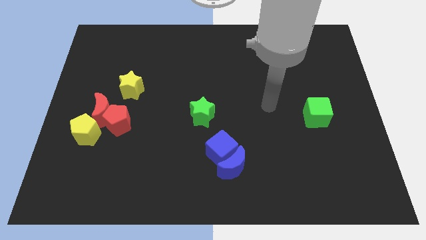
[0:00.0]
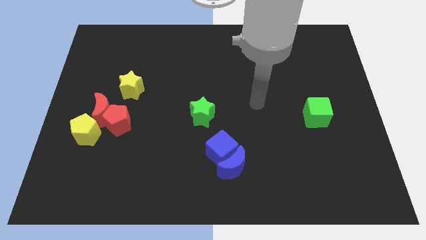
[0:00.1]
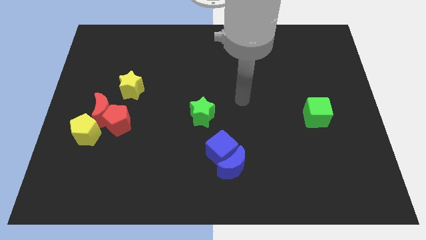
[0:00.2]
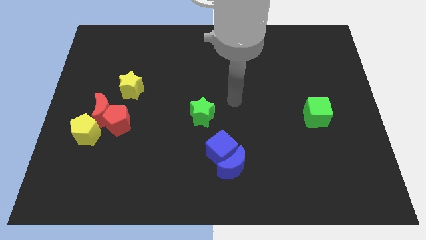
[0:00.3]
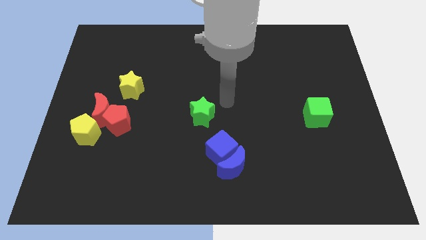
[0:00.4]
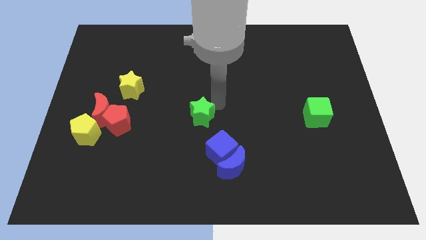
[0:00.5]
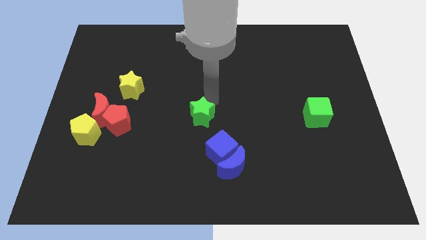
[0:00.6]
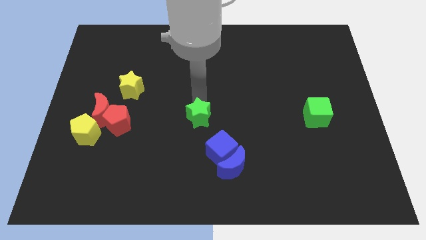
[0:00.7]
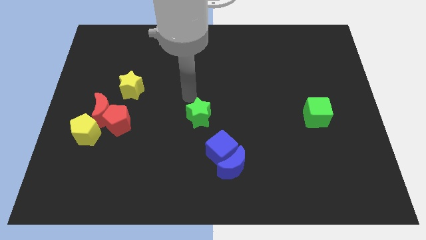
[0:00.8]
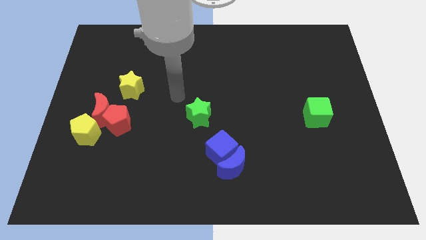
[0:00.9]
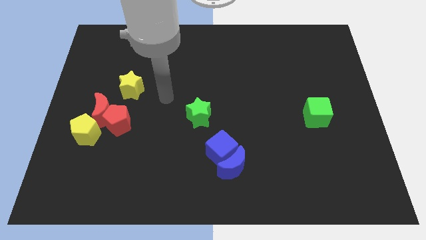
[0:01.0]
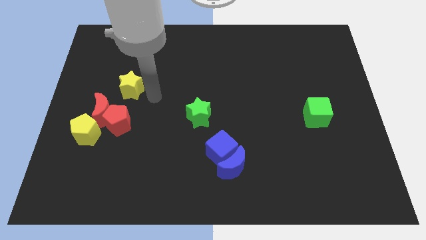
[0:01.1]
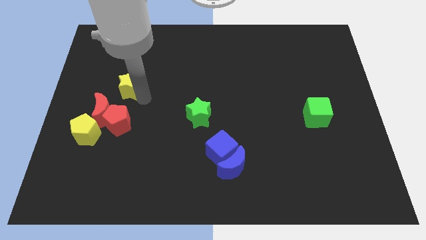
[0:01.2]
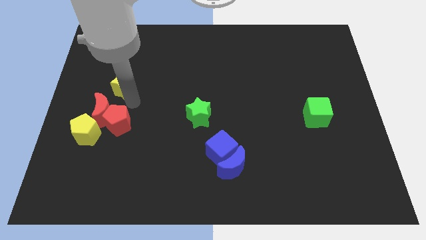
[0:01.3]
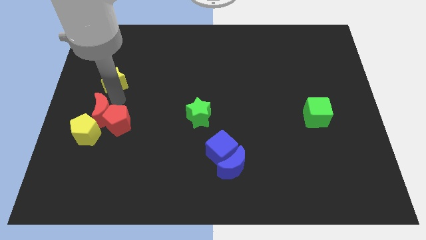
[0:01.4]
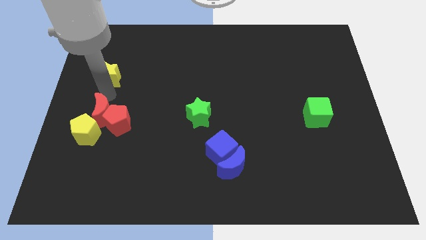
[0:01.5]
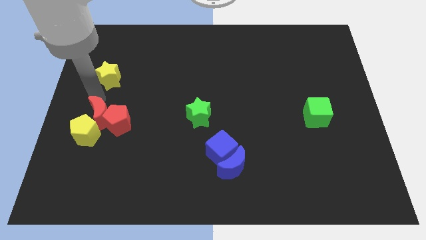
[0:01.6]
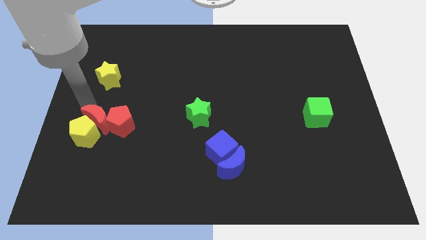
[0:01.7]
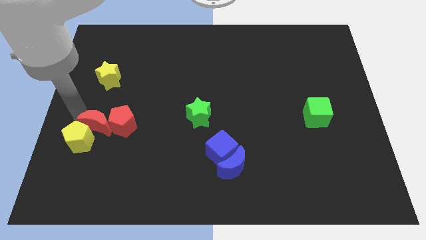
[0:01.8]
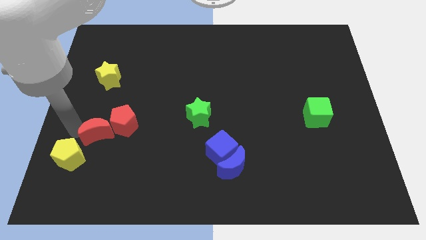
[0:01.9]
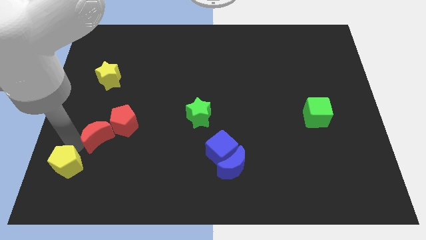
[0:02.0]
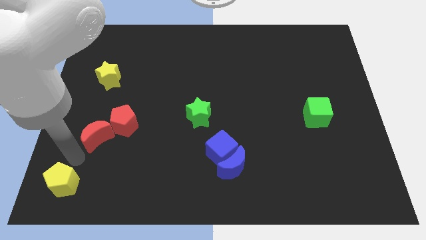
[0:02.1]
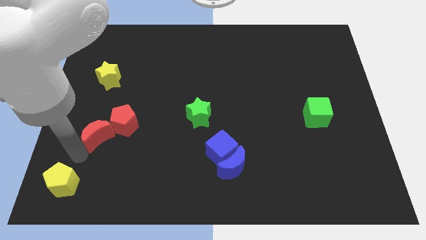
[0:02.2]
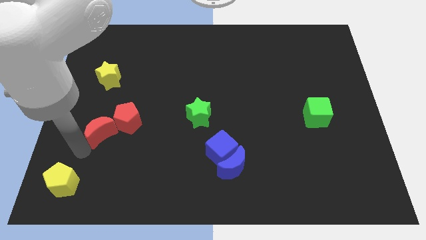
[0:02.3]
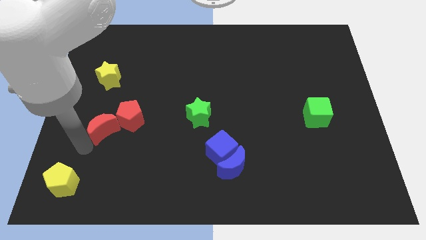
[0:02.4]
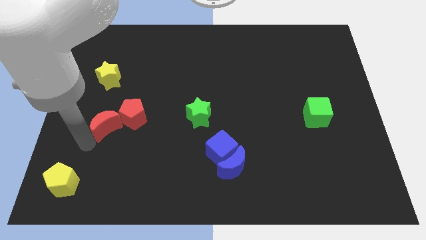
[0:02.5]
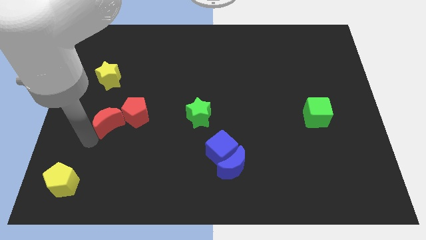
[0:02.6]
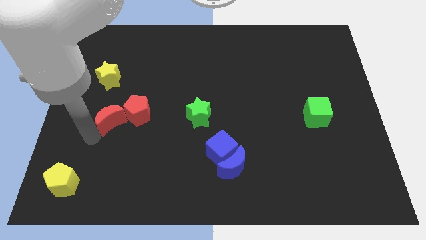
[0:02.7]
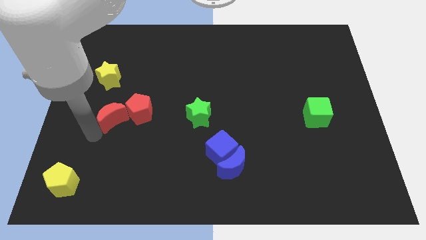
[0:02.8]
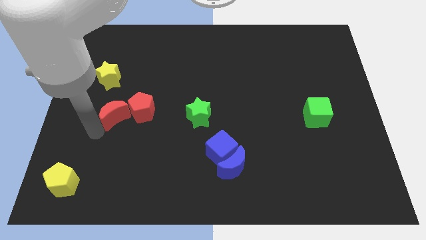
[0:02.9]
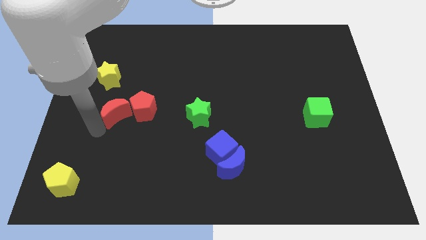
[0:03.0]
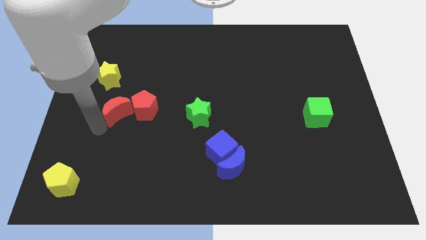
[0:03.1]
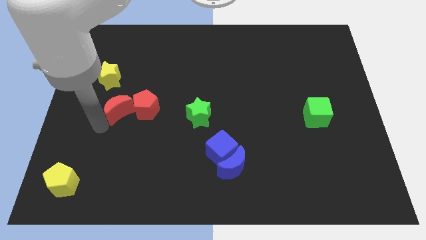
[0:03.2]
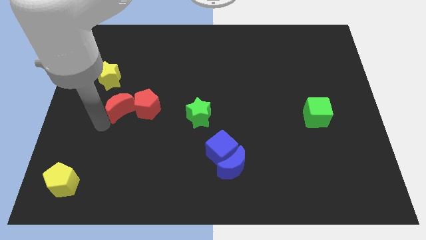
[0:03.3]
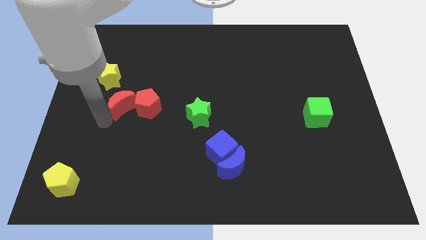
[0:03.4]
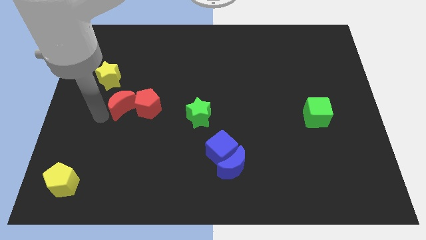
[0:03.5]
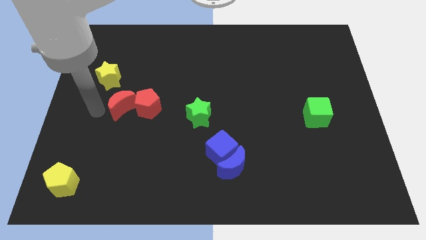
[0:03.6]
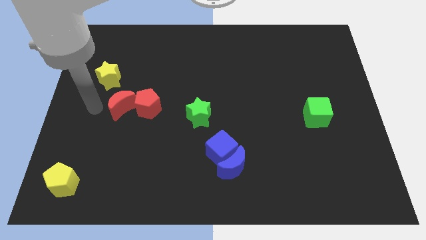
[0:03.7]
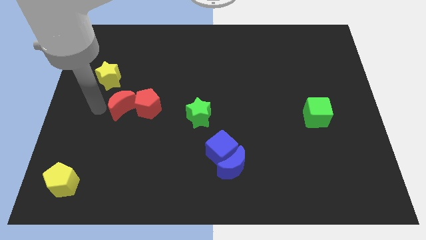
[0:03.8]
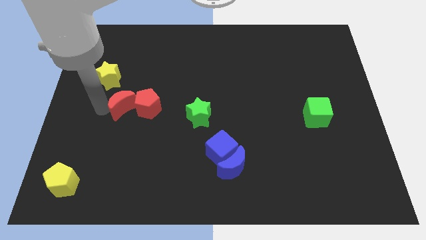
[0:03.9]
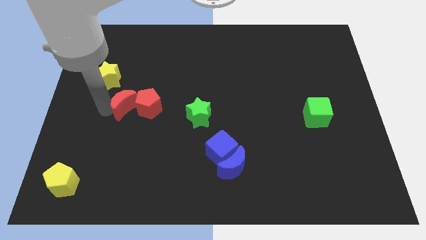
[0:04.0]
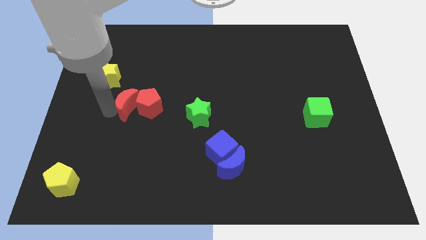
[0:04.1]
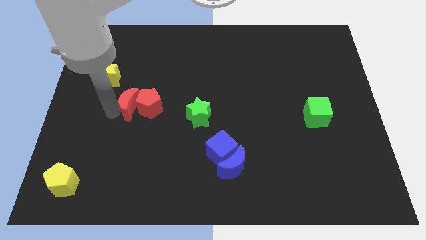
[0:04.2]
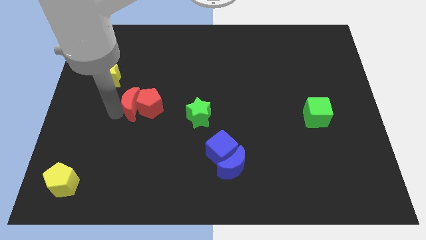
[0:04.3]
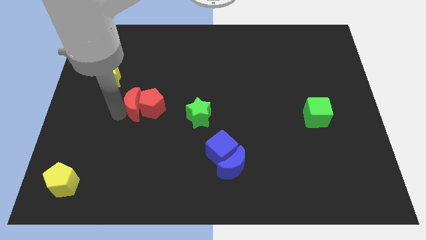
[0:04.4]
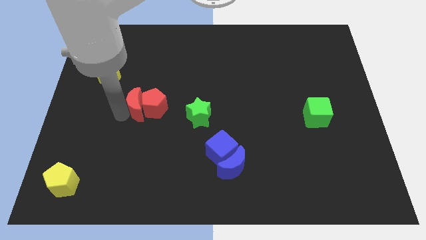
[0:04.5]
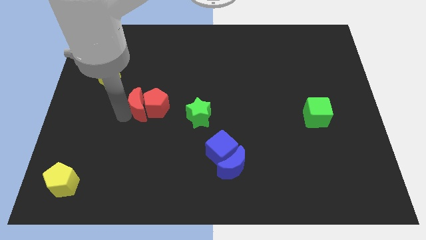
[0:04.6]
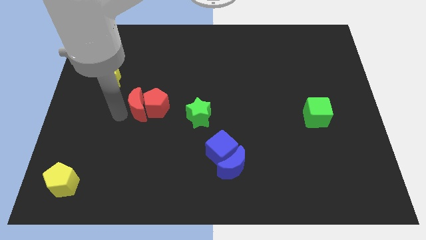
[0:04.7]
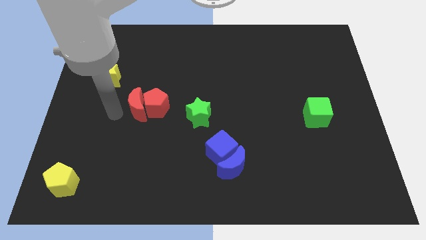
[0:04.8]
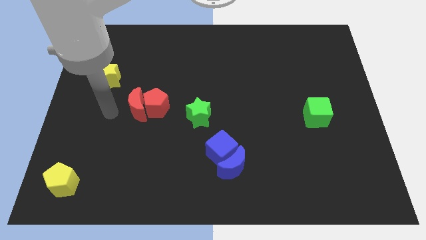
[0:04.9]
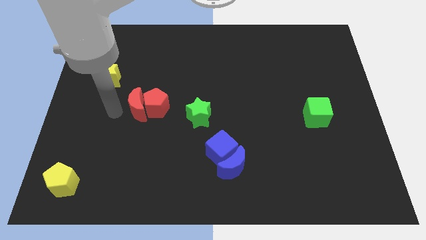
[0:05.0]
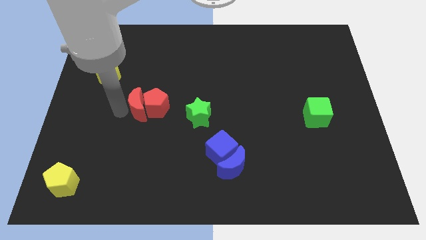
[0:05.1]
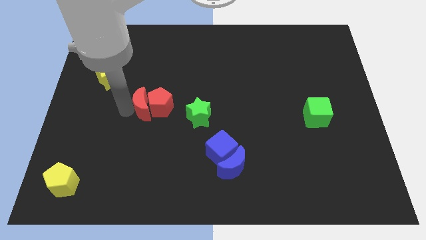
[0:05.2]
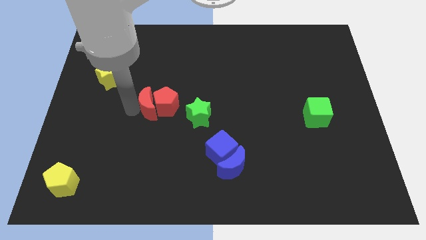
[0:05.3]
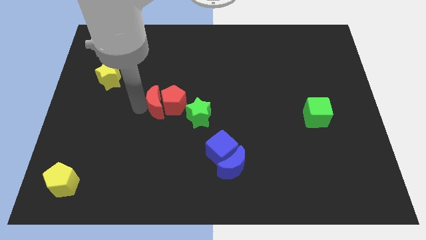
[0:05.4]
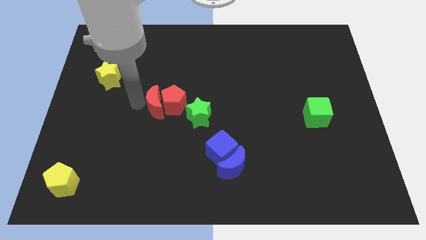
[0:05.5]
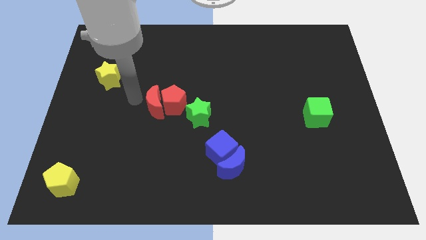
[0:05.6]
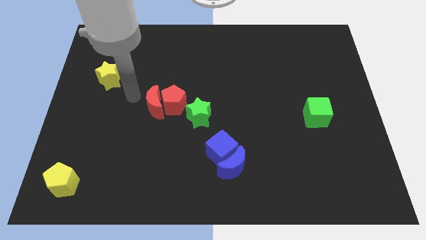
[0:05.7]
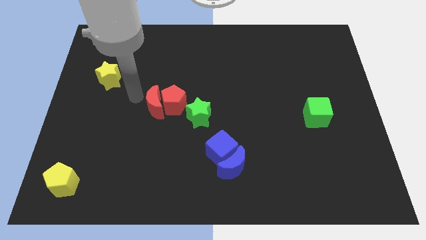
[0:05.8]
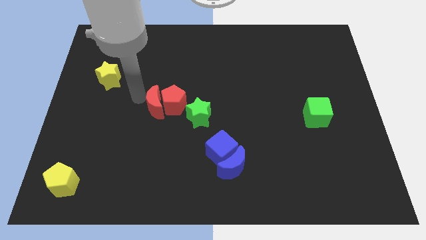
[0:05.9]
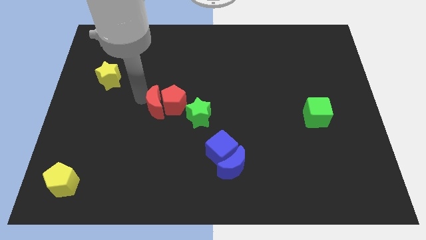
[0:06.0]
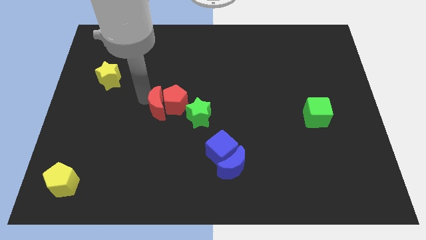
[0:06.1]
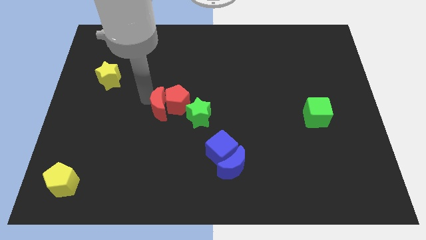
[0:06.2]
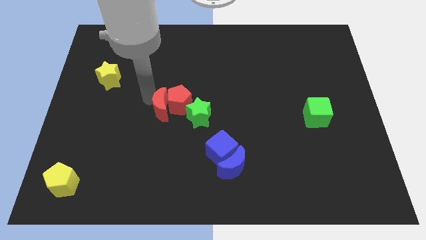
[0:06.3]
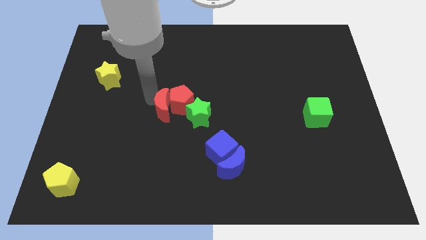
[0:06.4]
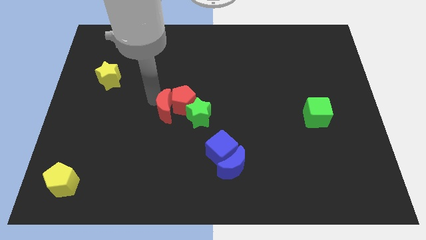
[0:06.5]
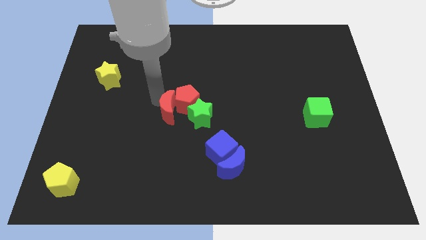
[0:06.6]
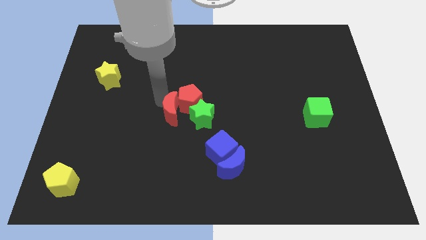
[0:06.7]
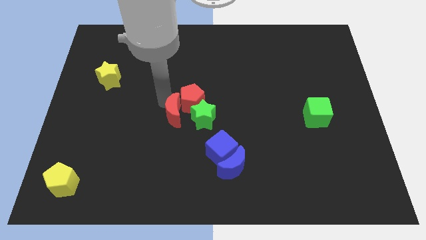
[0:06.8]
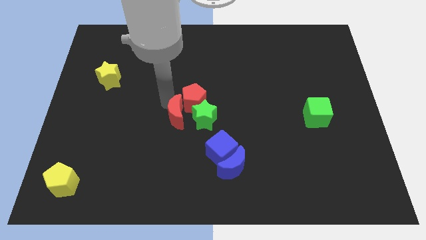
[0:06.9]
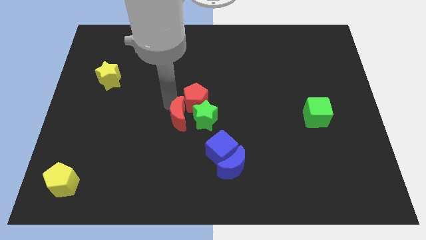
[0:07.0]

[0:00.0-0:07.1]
push the red moon towards the green star
